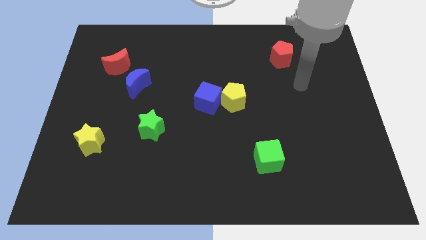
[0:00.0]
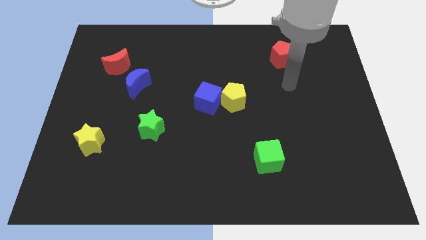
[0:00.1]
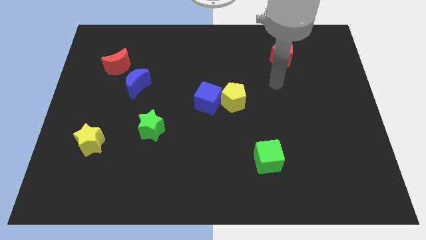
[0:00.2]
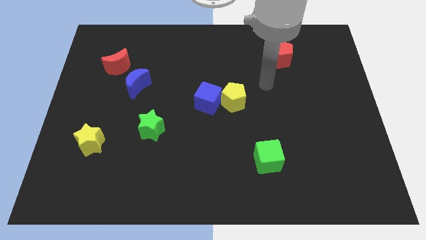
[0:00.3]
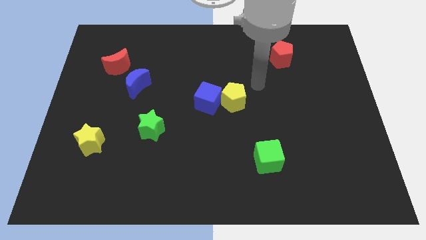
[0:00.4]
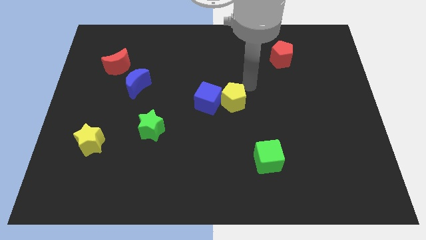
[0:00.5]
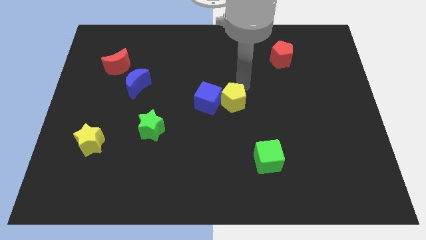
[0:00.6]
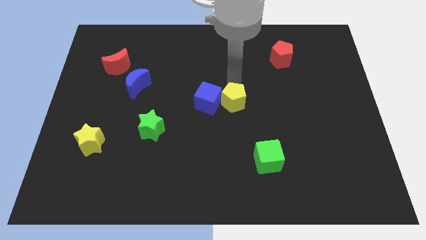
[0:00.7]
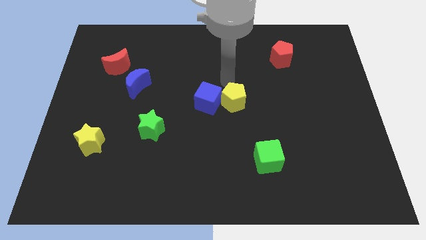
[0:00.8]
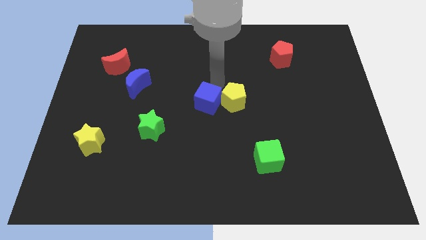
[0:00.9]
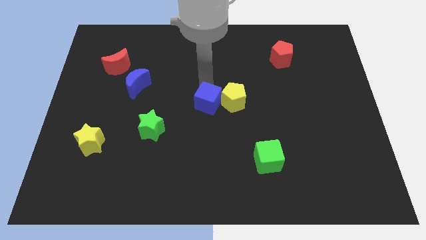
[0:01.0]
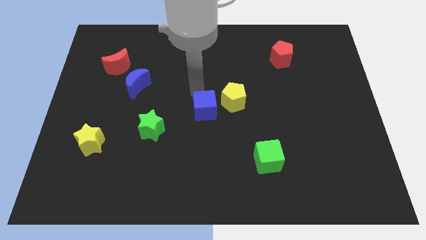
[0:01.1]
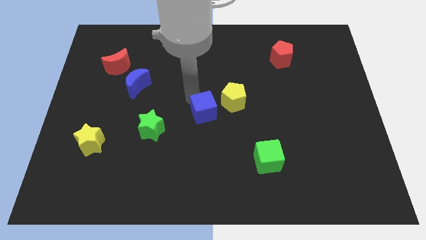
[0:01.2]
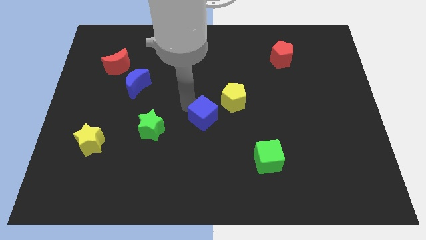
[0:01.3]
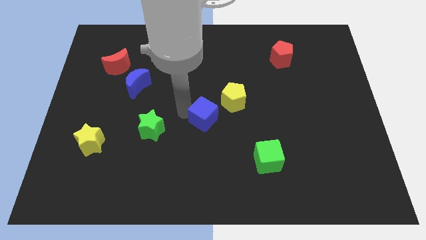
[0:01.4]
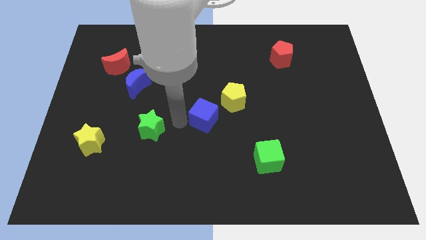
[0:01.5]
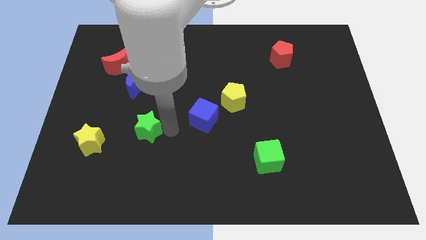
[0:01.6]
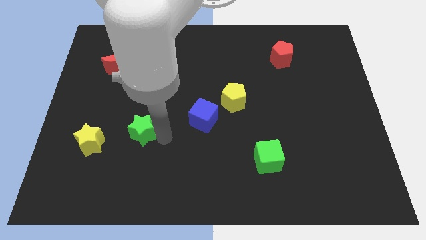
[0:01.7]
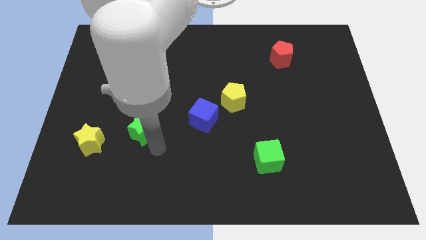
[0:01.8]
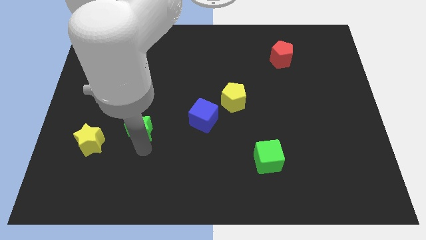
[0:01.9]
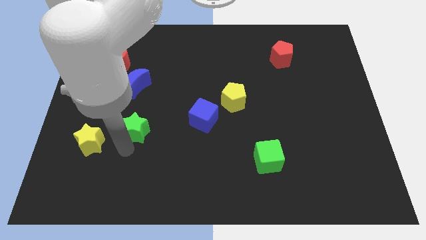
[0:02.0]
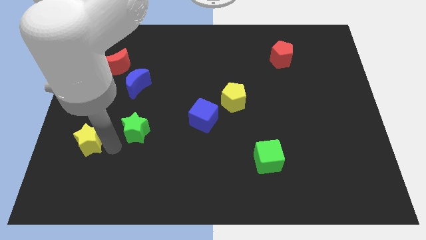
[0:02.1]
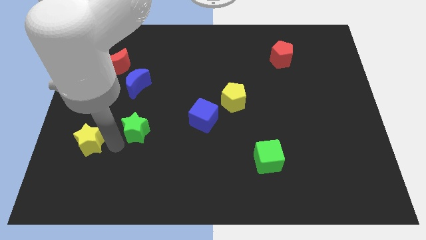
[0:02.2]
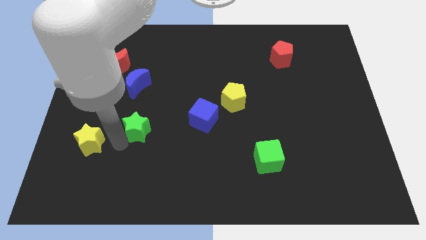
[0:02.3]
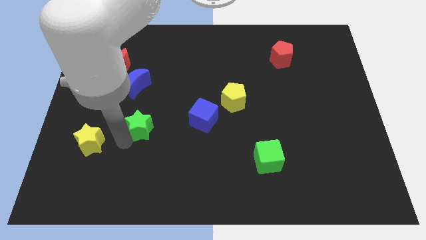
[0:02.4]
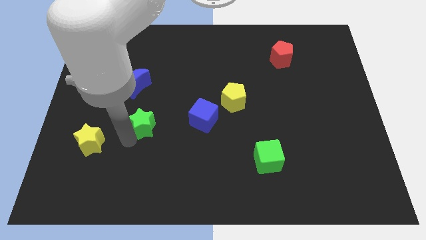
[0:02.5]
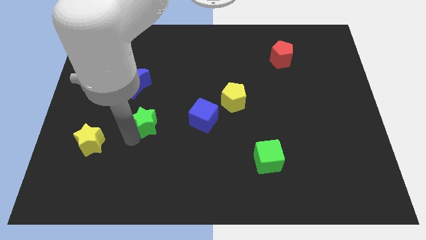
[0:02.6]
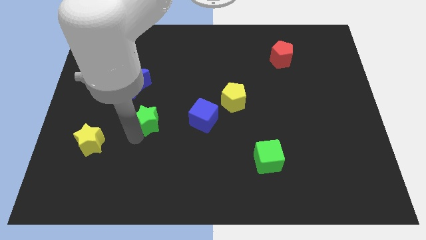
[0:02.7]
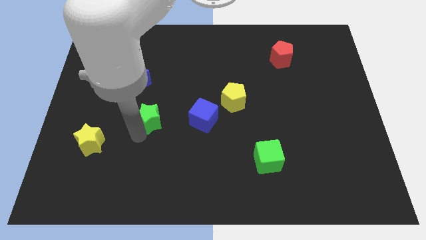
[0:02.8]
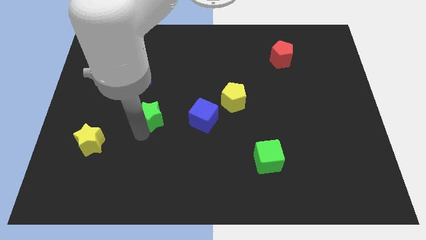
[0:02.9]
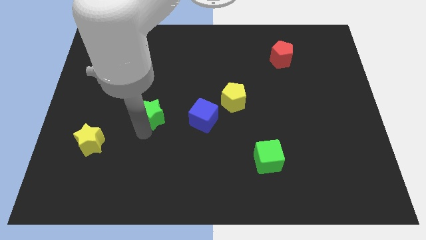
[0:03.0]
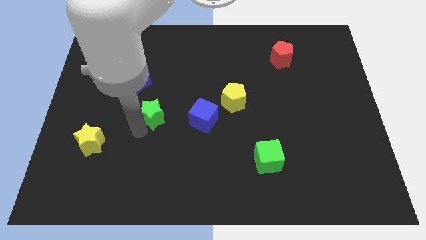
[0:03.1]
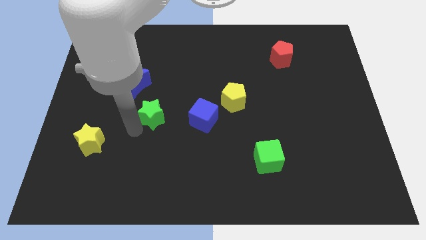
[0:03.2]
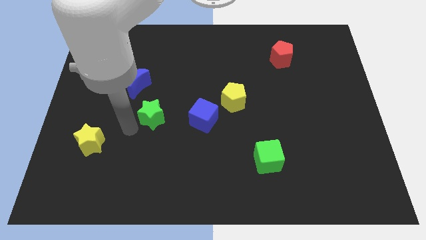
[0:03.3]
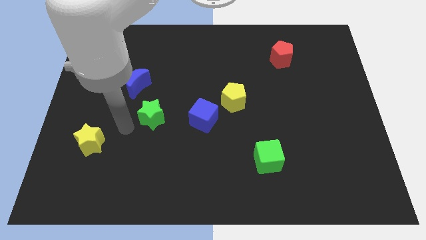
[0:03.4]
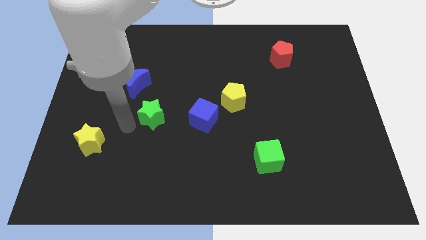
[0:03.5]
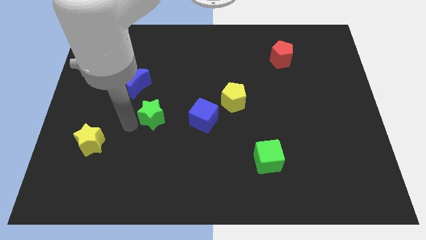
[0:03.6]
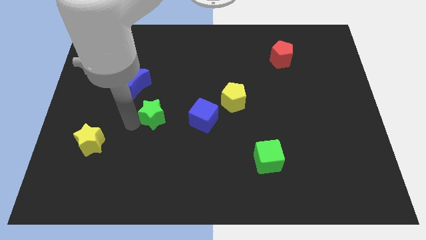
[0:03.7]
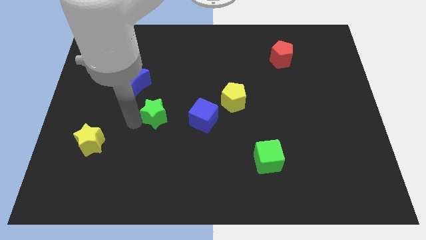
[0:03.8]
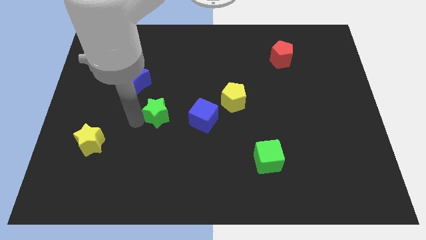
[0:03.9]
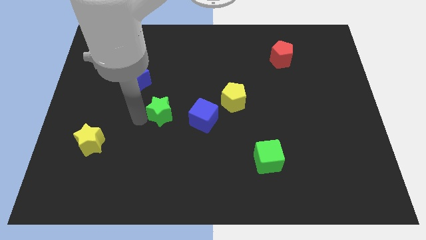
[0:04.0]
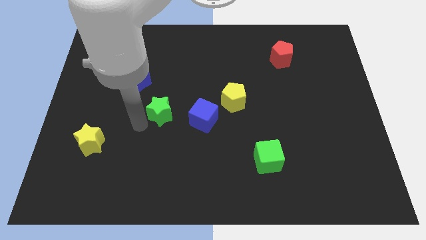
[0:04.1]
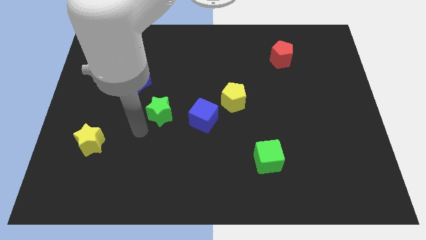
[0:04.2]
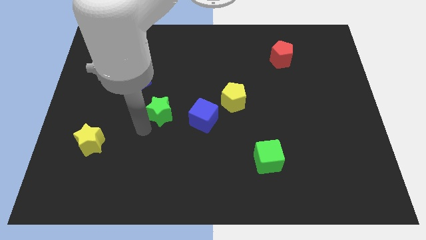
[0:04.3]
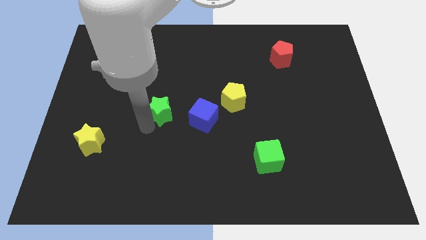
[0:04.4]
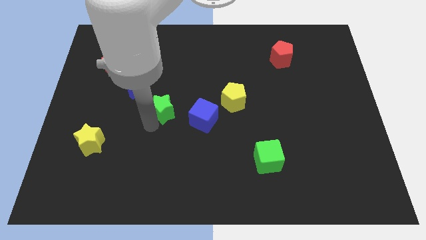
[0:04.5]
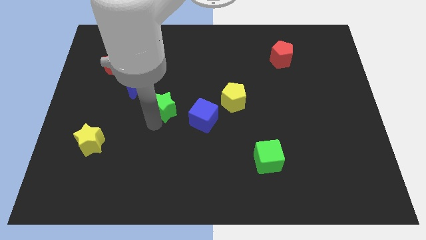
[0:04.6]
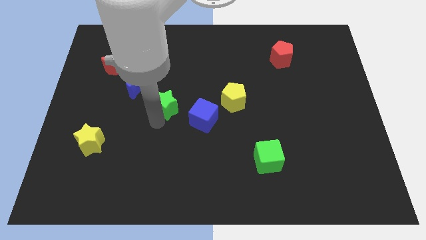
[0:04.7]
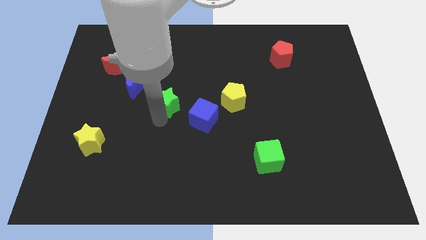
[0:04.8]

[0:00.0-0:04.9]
move the green star slightly upwards and then right

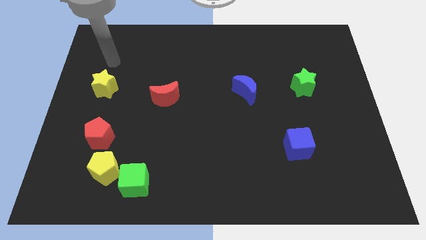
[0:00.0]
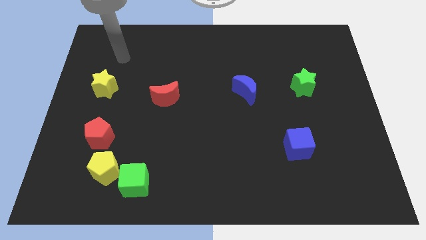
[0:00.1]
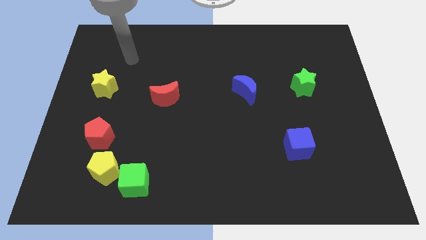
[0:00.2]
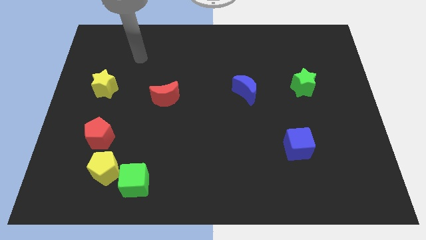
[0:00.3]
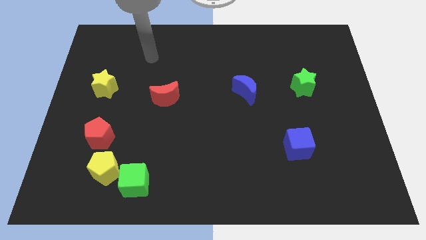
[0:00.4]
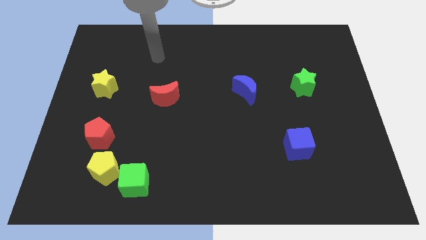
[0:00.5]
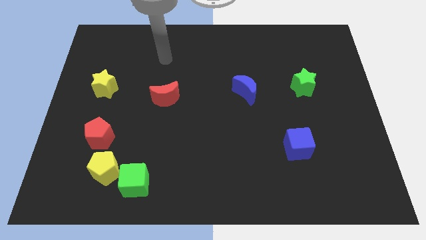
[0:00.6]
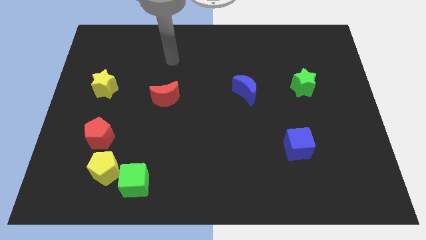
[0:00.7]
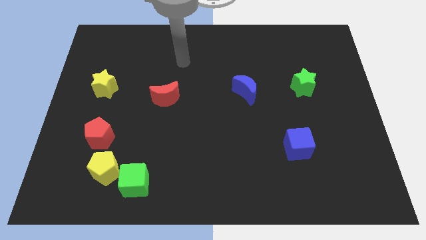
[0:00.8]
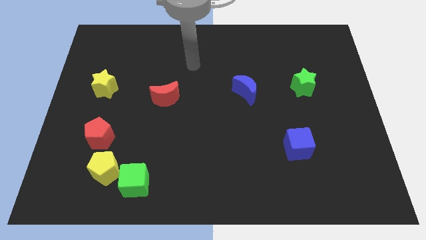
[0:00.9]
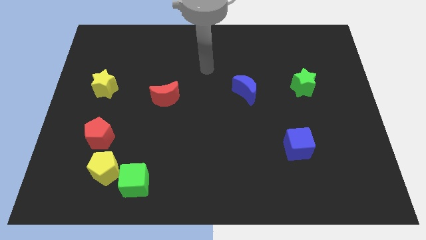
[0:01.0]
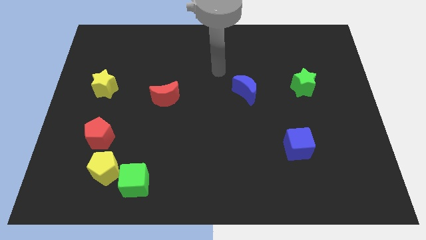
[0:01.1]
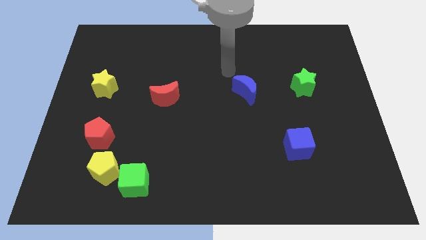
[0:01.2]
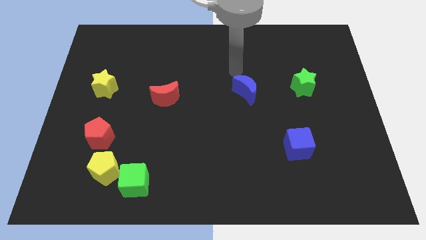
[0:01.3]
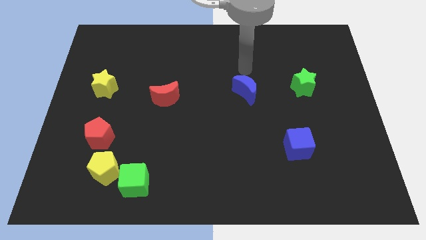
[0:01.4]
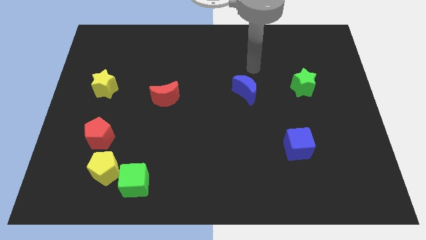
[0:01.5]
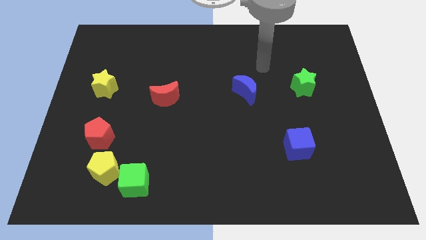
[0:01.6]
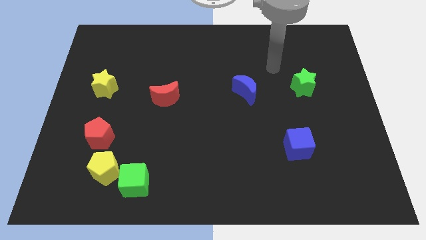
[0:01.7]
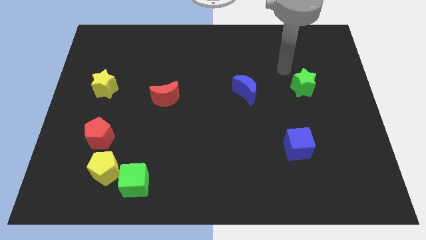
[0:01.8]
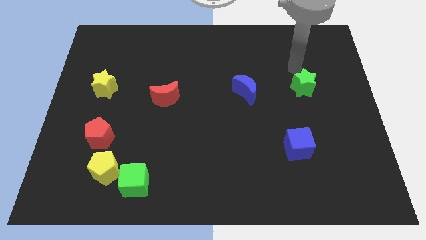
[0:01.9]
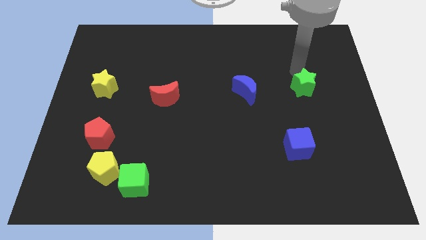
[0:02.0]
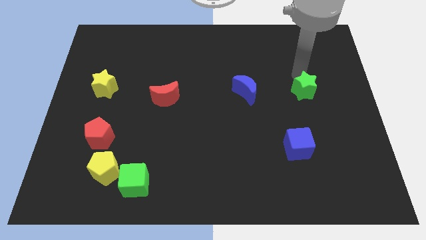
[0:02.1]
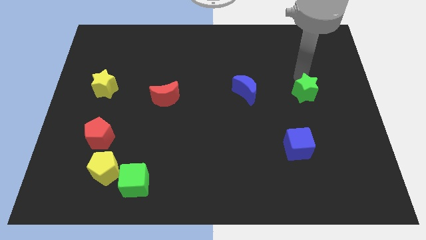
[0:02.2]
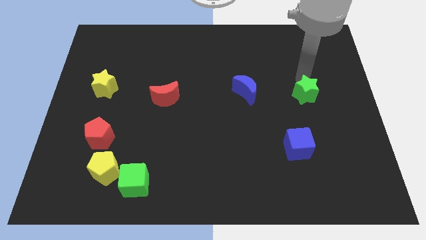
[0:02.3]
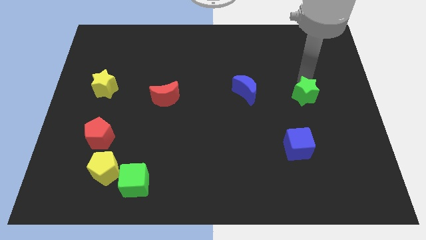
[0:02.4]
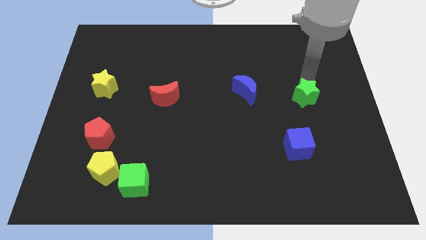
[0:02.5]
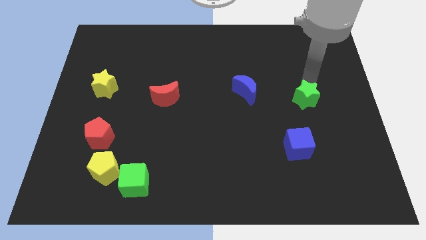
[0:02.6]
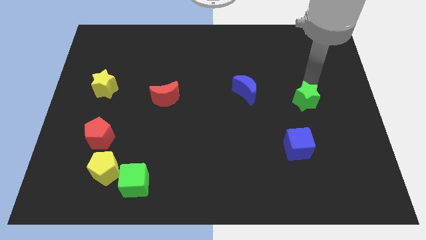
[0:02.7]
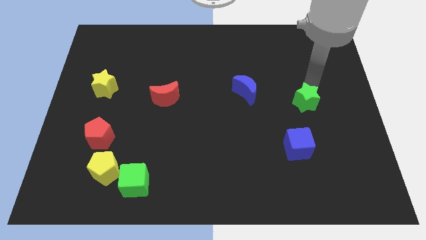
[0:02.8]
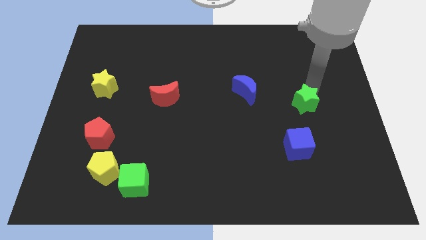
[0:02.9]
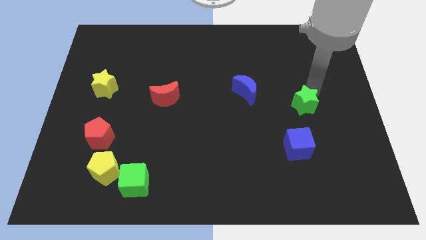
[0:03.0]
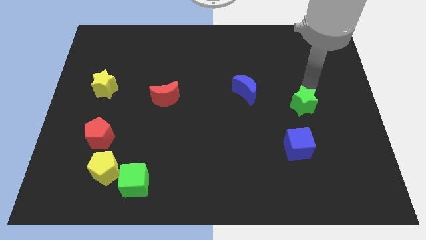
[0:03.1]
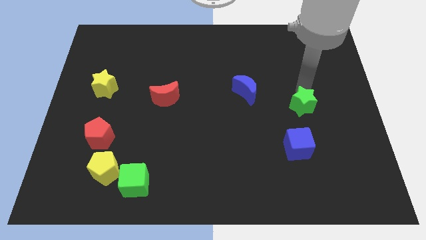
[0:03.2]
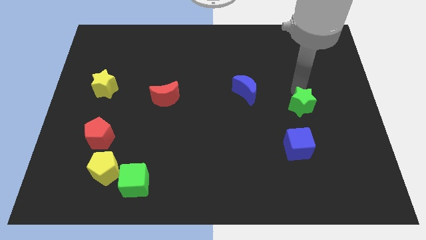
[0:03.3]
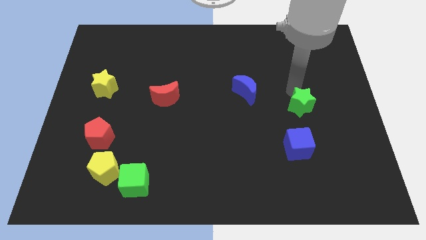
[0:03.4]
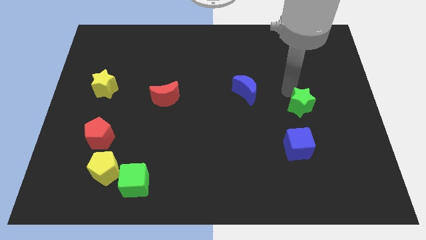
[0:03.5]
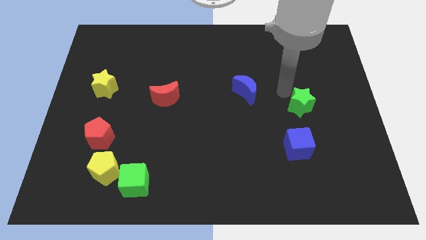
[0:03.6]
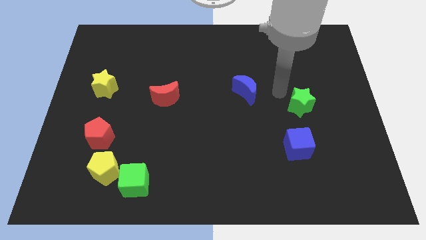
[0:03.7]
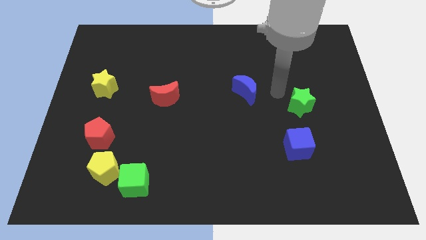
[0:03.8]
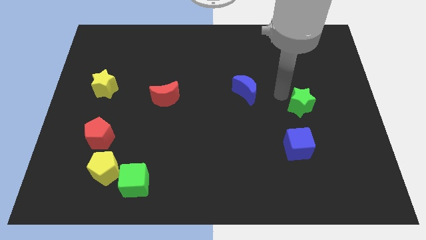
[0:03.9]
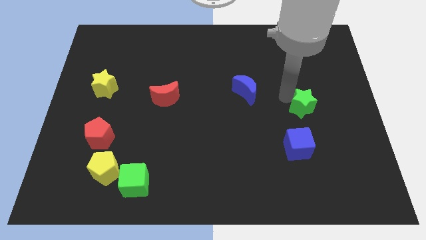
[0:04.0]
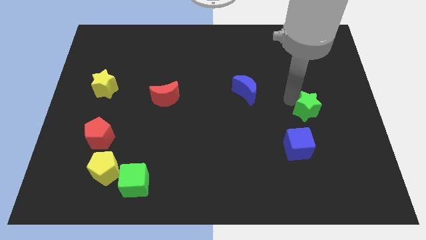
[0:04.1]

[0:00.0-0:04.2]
push the green star down a little bit
